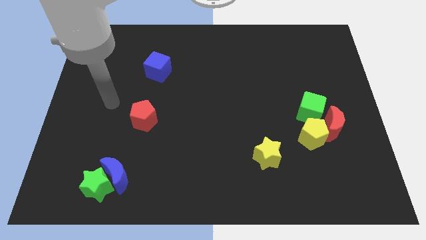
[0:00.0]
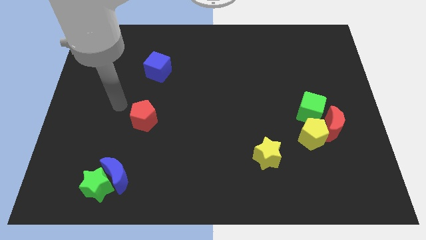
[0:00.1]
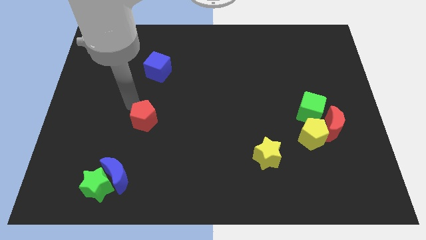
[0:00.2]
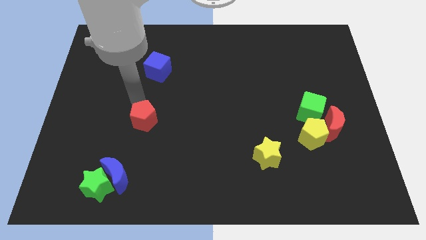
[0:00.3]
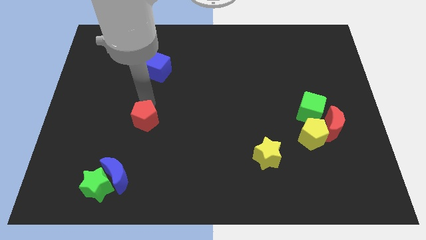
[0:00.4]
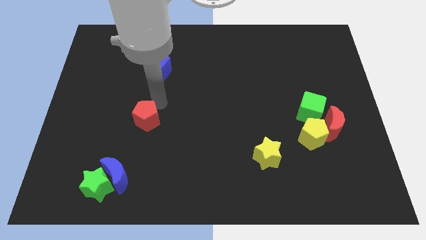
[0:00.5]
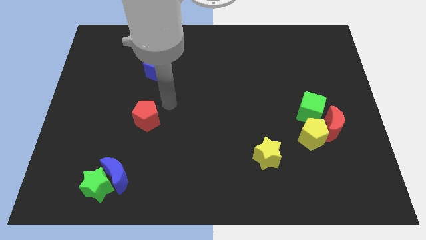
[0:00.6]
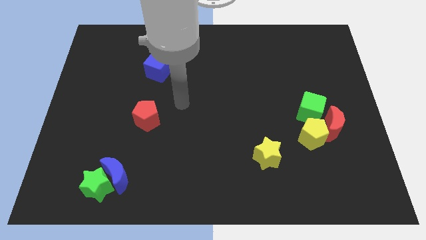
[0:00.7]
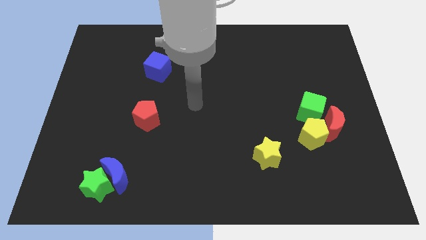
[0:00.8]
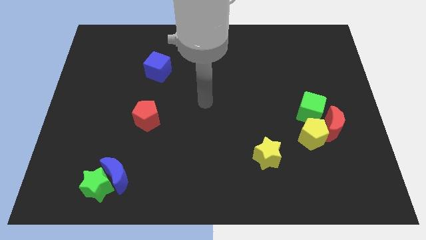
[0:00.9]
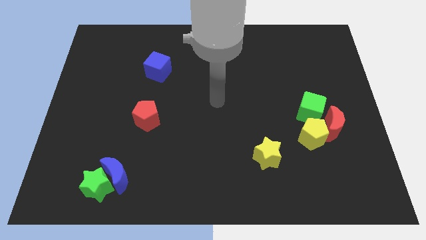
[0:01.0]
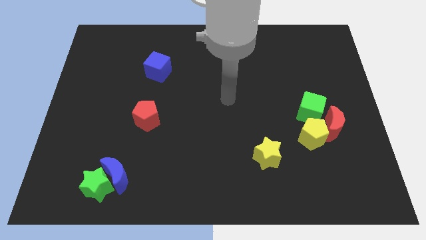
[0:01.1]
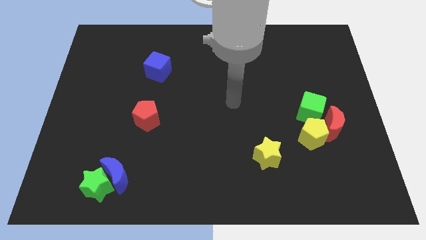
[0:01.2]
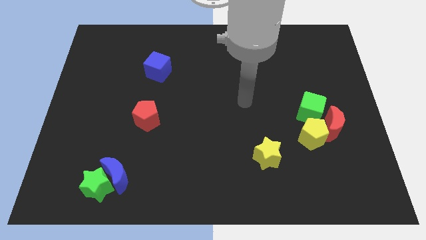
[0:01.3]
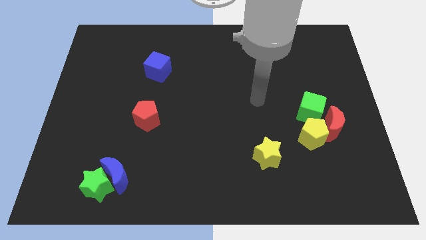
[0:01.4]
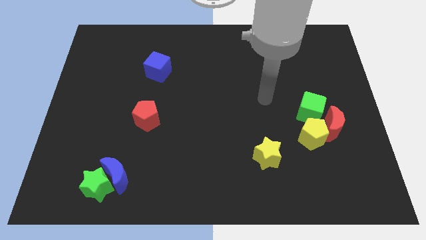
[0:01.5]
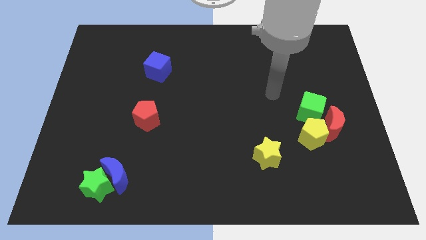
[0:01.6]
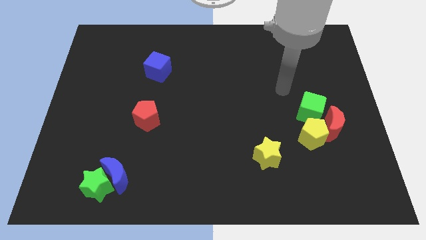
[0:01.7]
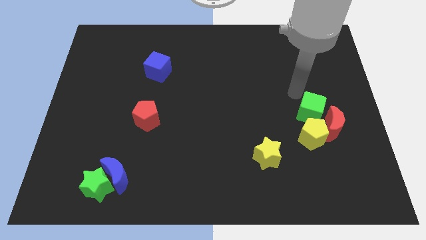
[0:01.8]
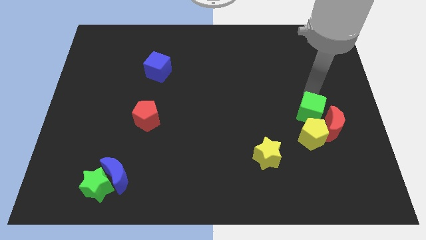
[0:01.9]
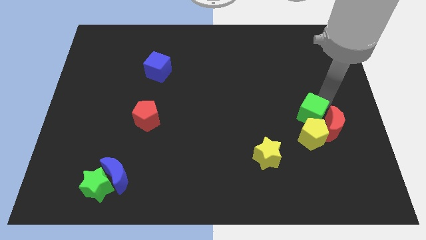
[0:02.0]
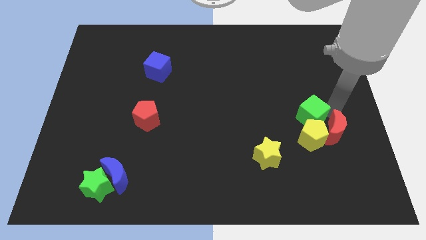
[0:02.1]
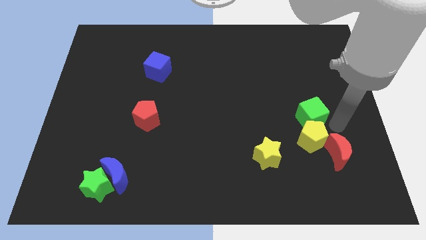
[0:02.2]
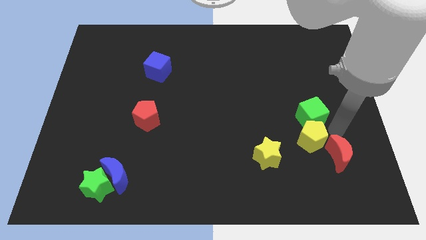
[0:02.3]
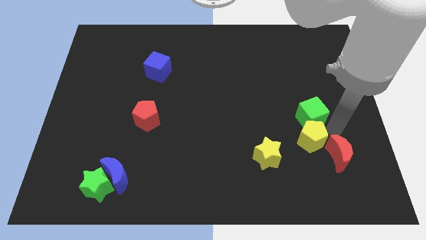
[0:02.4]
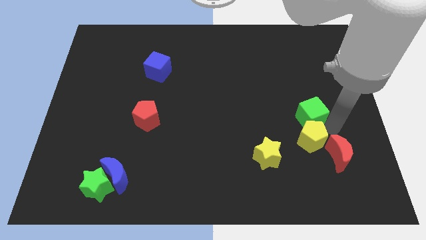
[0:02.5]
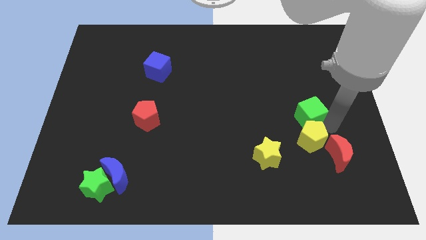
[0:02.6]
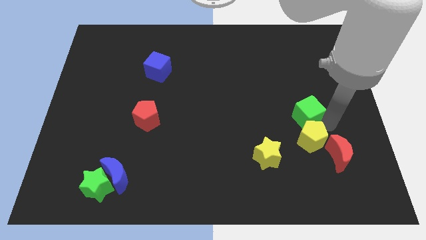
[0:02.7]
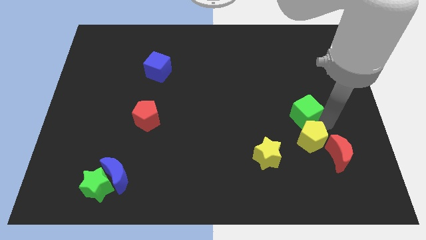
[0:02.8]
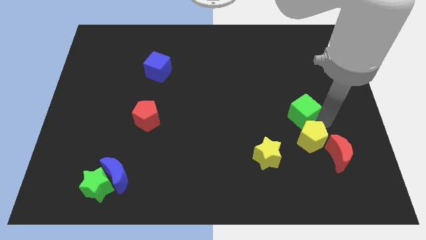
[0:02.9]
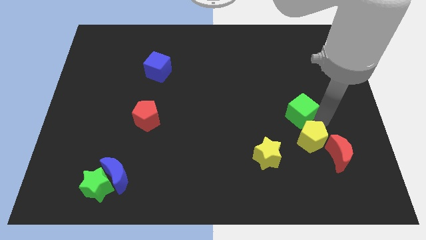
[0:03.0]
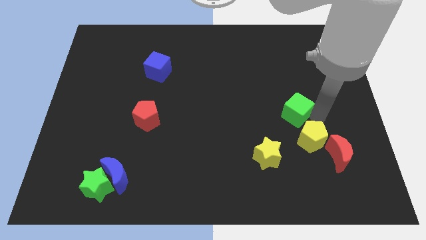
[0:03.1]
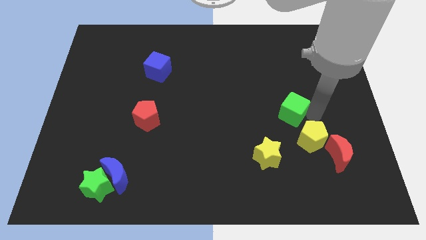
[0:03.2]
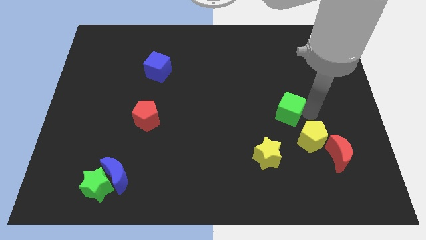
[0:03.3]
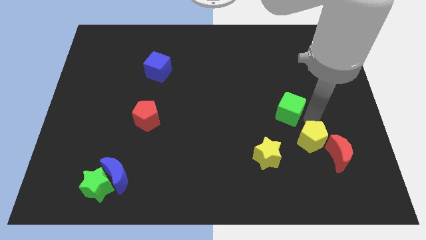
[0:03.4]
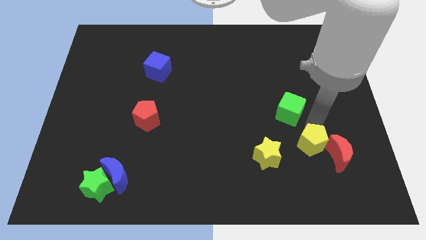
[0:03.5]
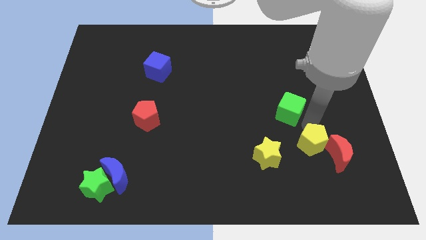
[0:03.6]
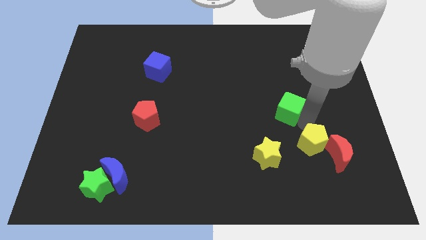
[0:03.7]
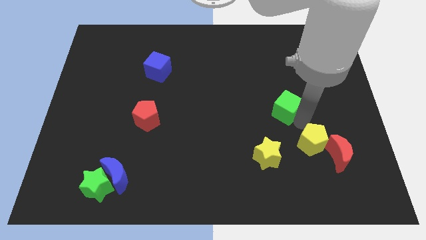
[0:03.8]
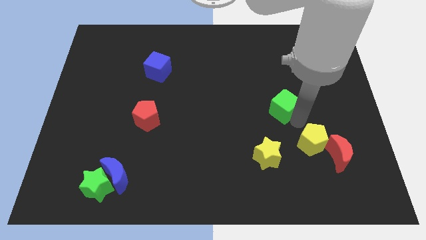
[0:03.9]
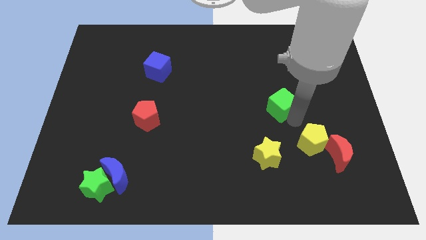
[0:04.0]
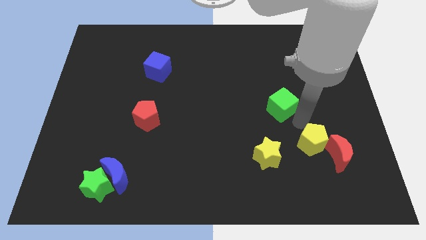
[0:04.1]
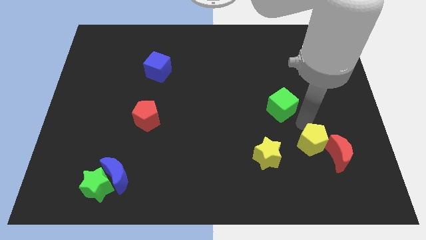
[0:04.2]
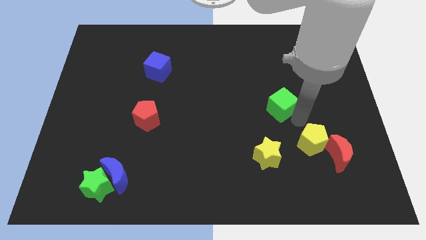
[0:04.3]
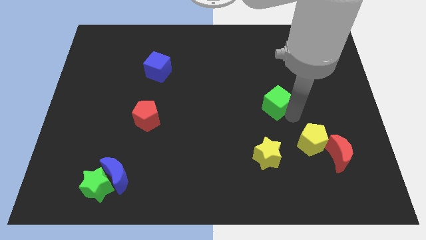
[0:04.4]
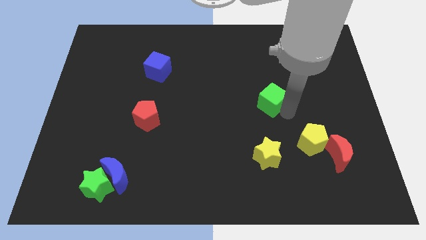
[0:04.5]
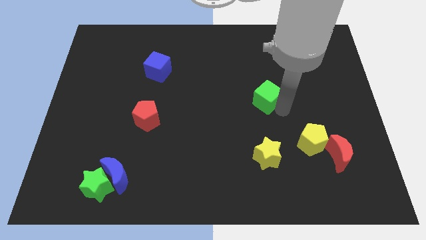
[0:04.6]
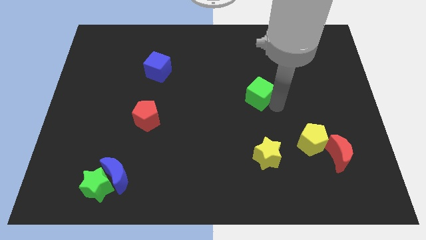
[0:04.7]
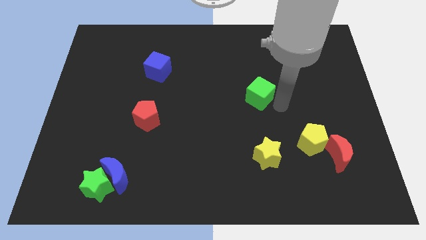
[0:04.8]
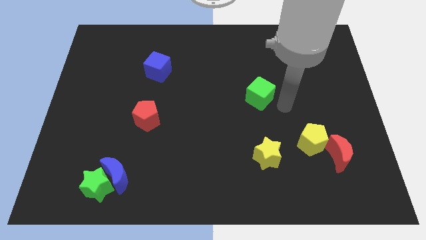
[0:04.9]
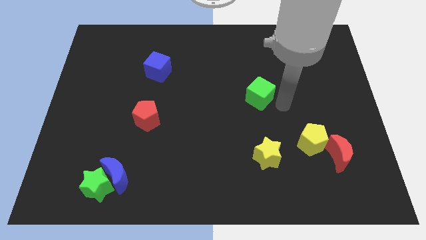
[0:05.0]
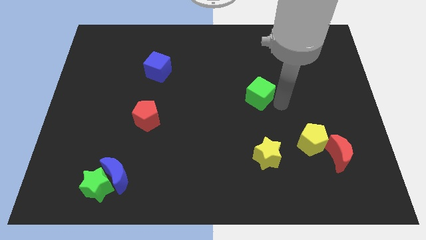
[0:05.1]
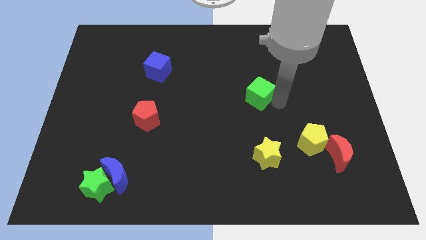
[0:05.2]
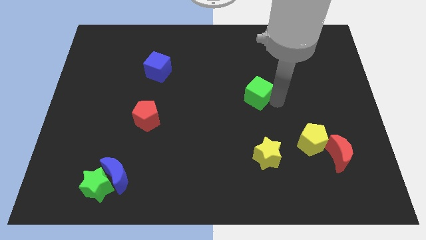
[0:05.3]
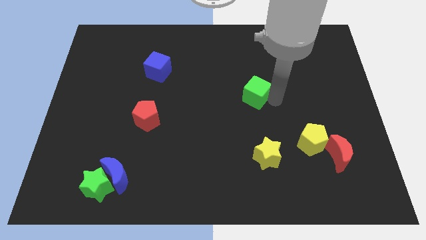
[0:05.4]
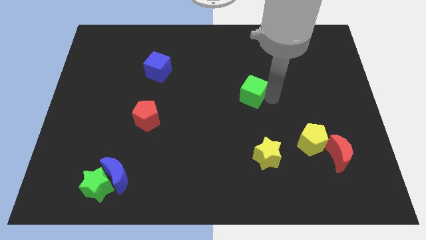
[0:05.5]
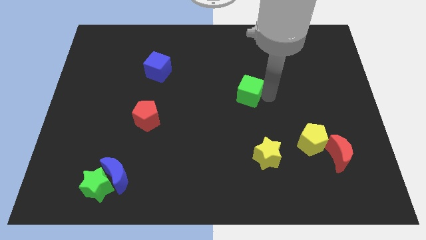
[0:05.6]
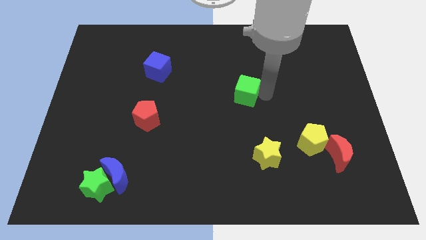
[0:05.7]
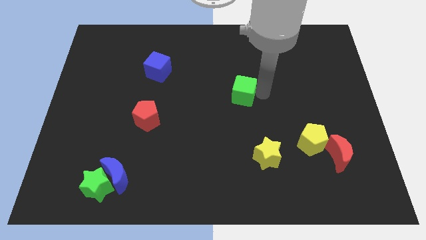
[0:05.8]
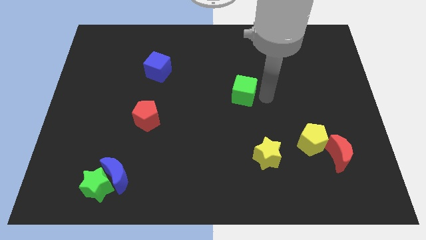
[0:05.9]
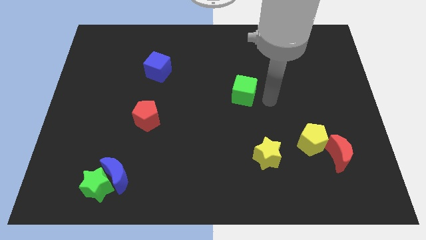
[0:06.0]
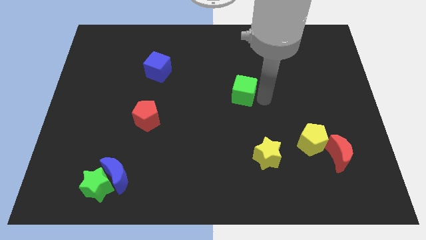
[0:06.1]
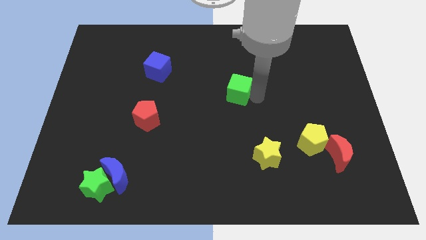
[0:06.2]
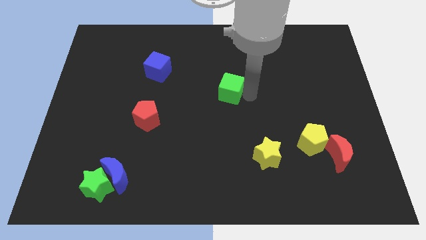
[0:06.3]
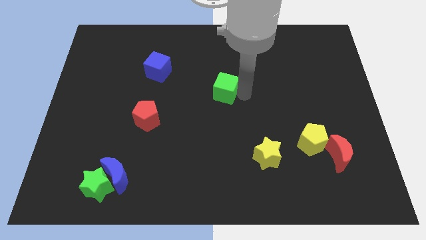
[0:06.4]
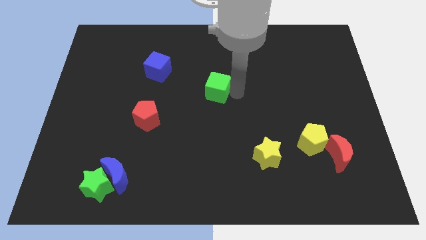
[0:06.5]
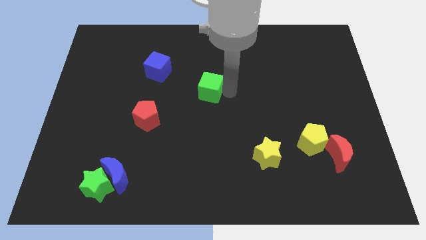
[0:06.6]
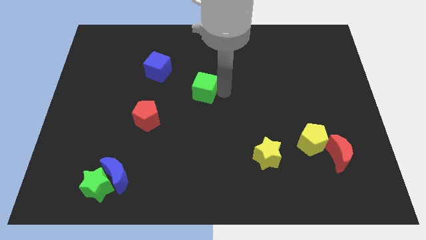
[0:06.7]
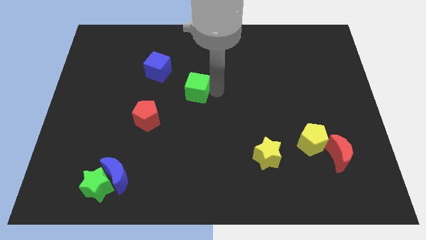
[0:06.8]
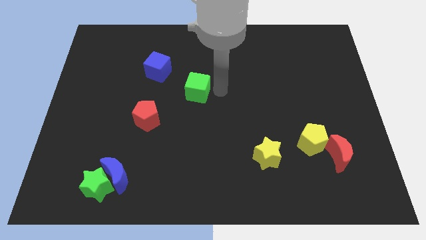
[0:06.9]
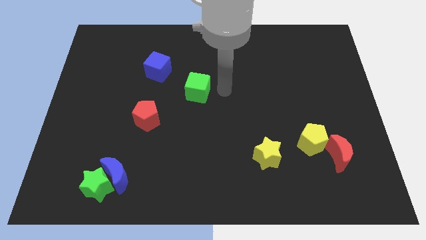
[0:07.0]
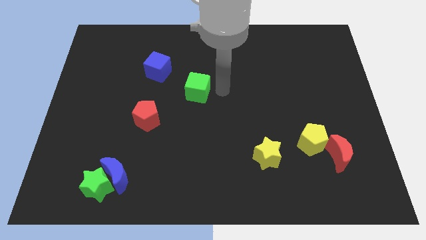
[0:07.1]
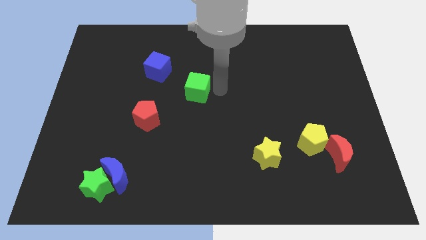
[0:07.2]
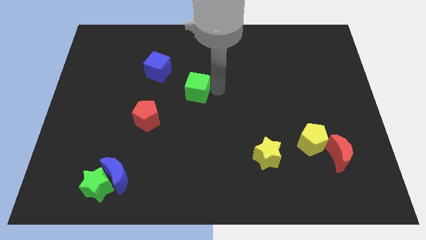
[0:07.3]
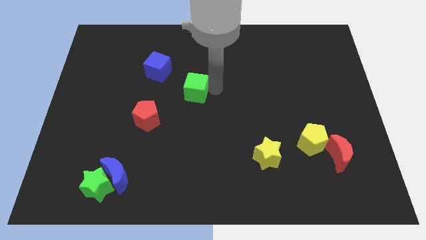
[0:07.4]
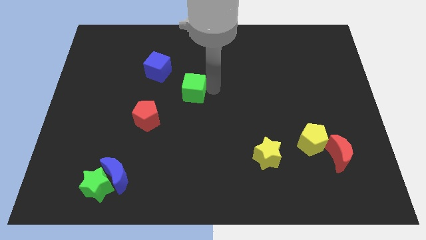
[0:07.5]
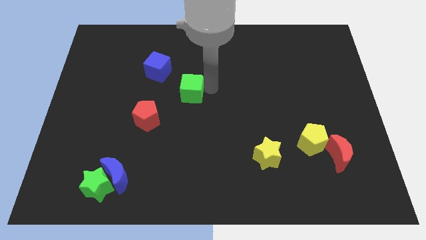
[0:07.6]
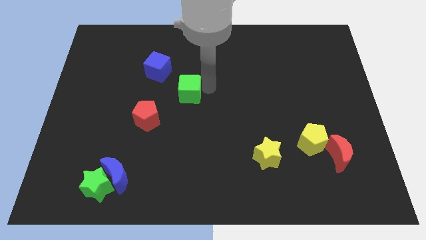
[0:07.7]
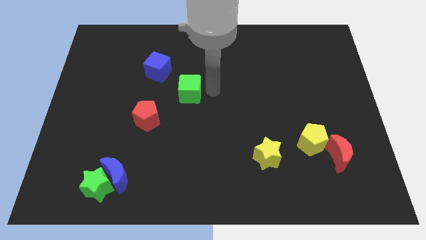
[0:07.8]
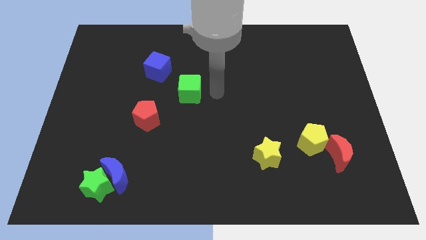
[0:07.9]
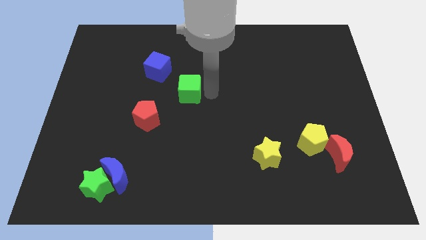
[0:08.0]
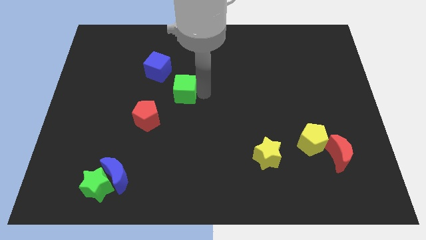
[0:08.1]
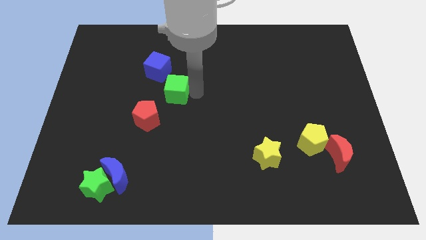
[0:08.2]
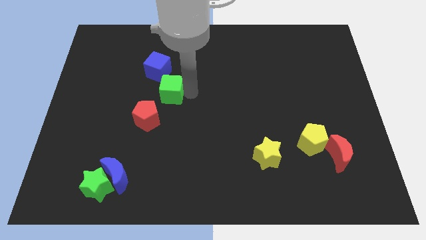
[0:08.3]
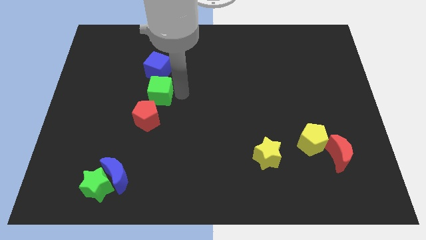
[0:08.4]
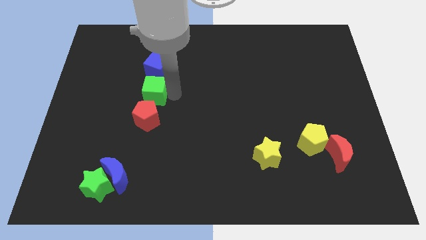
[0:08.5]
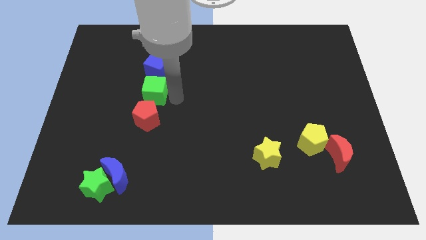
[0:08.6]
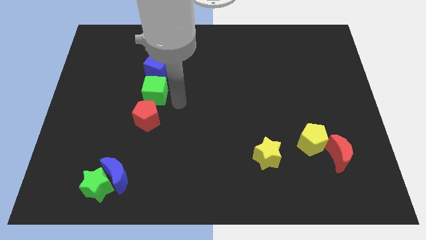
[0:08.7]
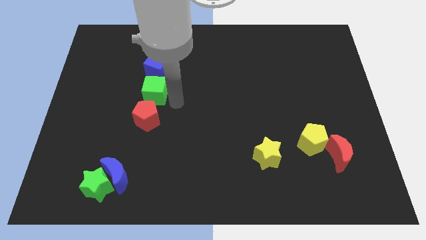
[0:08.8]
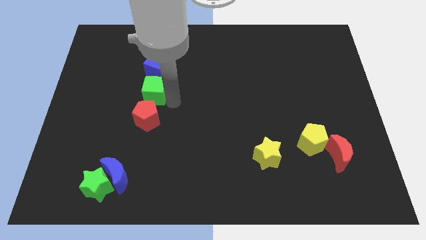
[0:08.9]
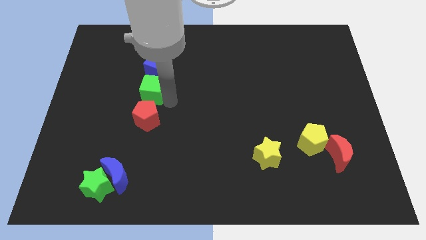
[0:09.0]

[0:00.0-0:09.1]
put the green cube diagonally down and to the left of the blue cube
